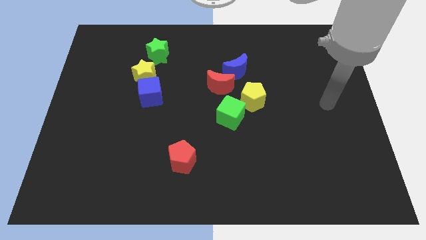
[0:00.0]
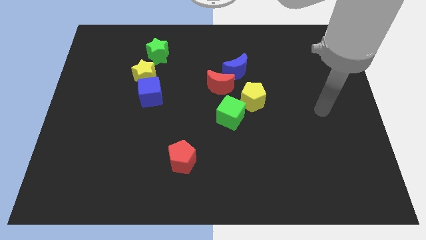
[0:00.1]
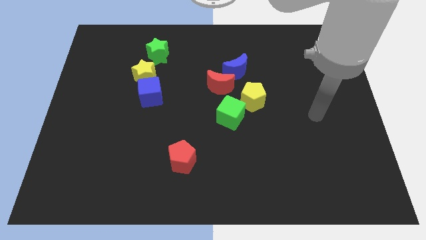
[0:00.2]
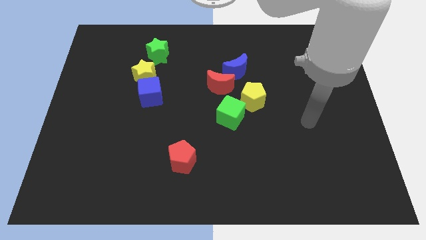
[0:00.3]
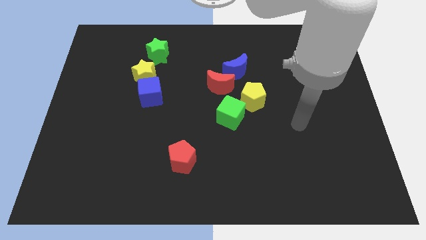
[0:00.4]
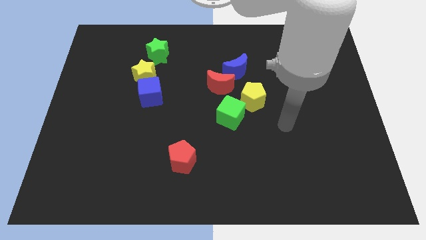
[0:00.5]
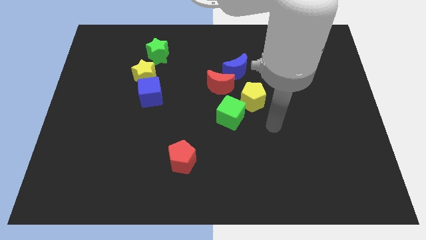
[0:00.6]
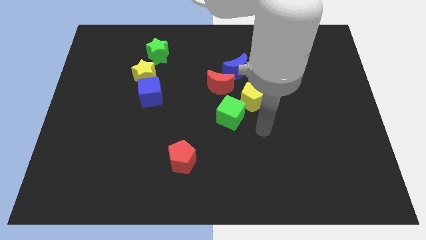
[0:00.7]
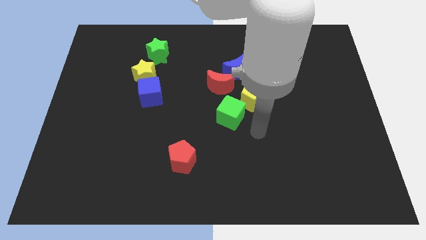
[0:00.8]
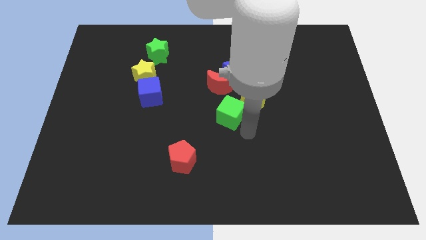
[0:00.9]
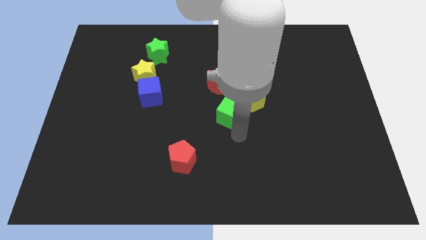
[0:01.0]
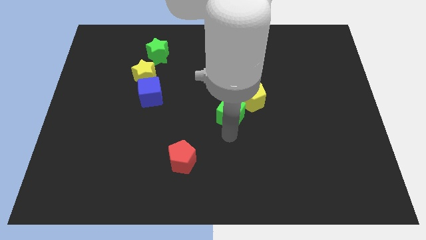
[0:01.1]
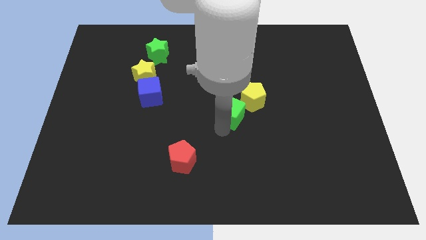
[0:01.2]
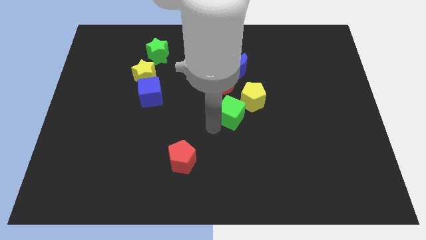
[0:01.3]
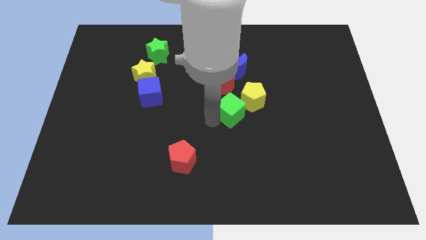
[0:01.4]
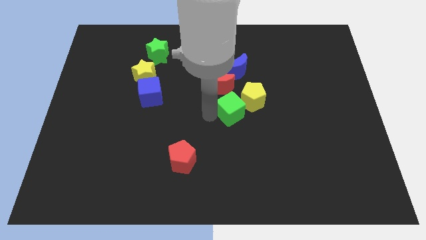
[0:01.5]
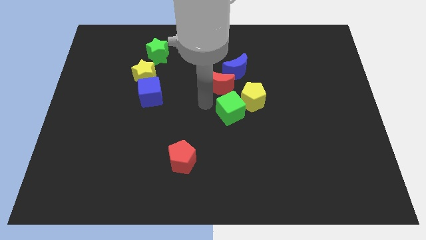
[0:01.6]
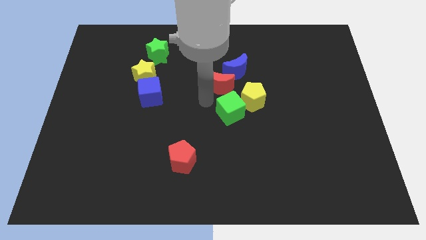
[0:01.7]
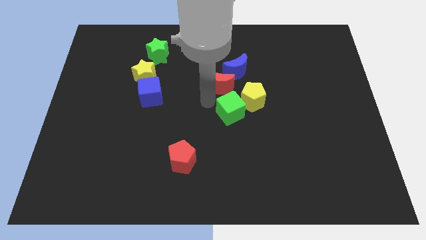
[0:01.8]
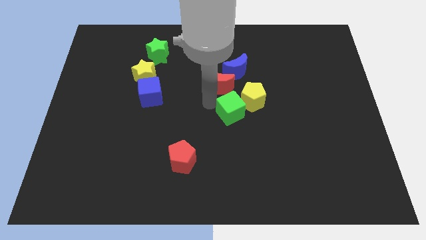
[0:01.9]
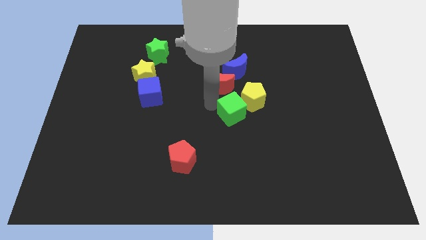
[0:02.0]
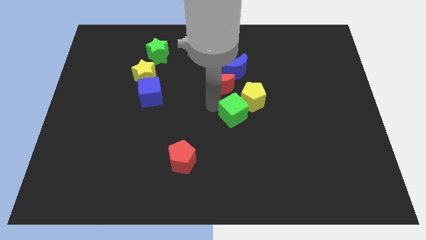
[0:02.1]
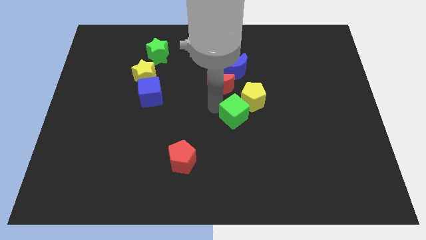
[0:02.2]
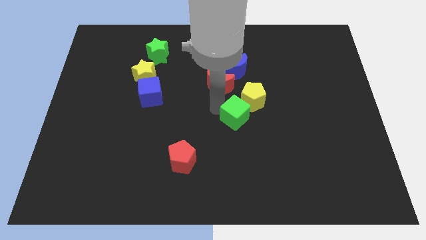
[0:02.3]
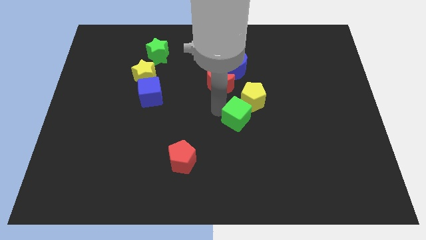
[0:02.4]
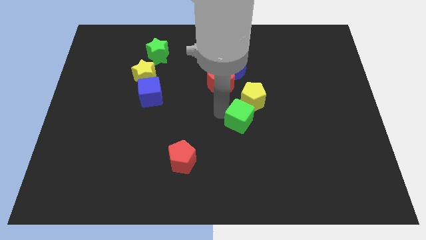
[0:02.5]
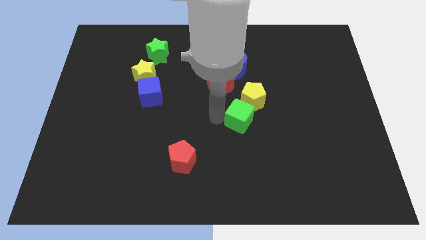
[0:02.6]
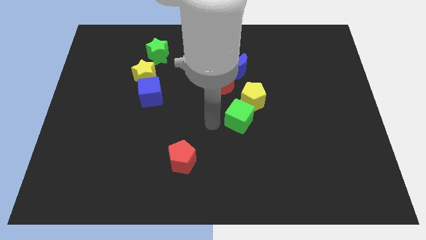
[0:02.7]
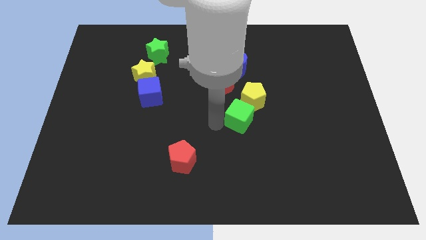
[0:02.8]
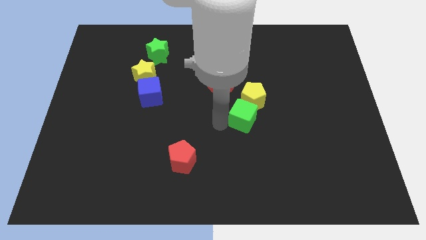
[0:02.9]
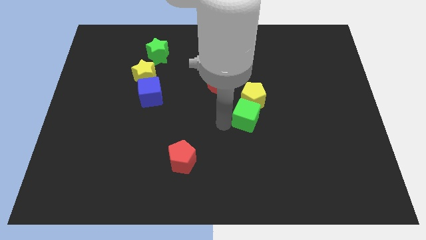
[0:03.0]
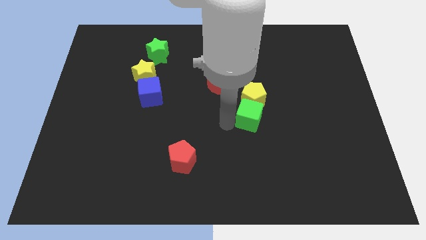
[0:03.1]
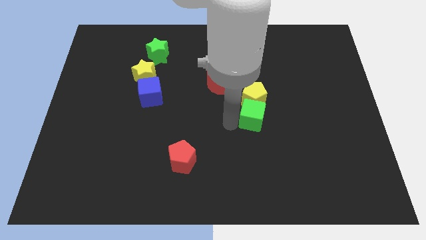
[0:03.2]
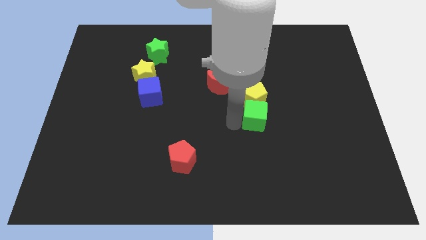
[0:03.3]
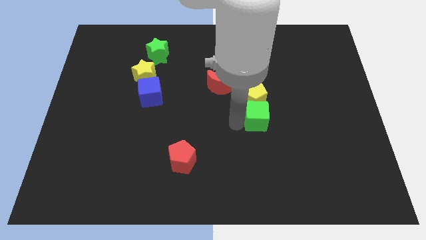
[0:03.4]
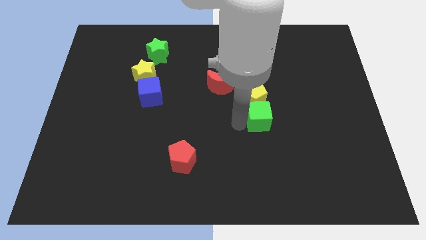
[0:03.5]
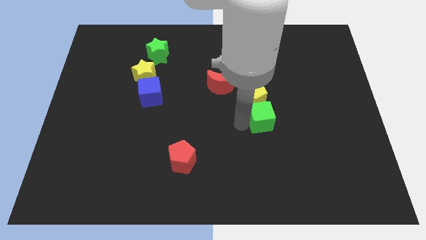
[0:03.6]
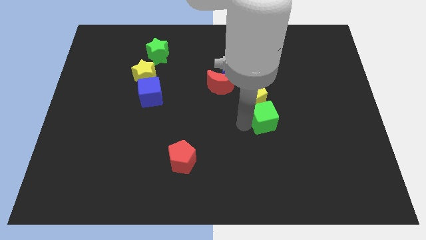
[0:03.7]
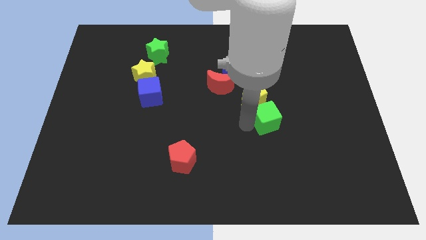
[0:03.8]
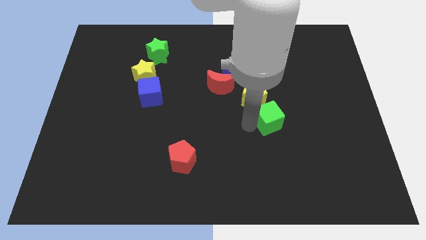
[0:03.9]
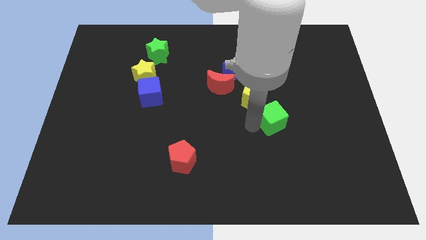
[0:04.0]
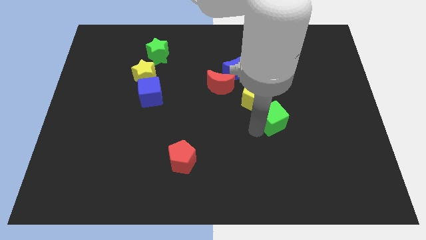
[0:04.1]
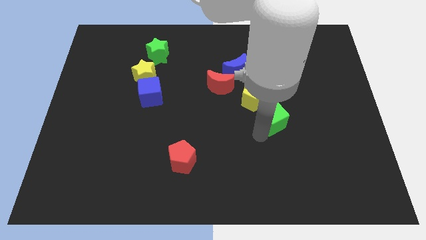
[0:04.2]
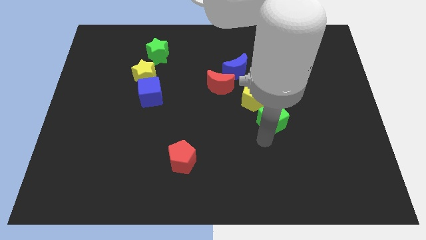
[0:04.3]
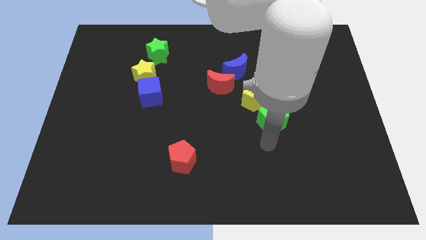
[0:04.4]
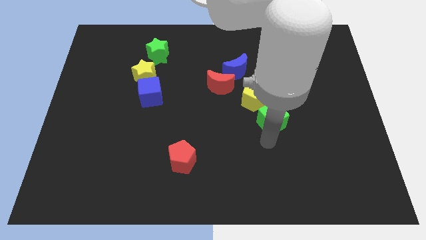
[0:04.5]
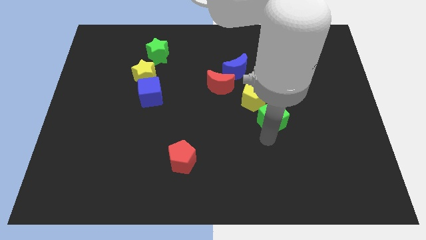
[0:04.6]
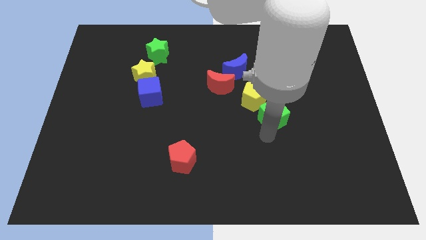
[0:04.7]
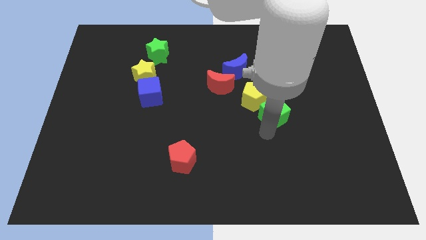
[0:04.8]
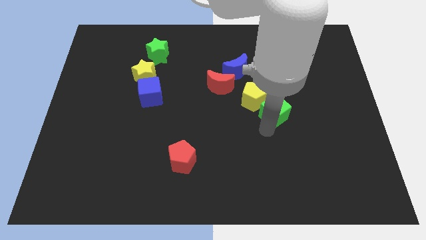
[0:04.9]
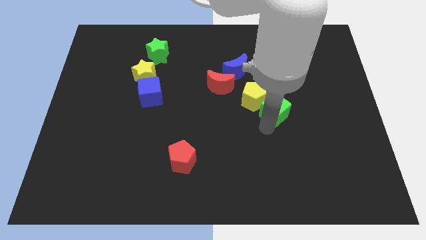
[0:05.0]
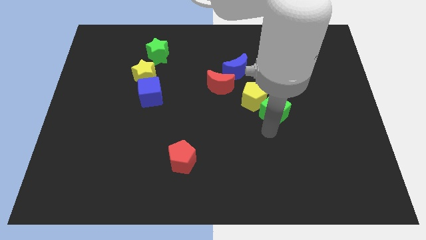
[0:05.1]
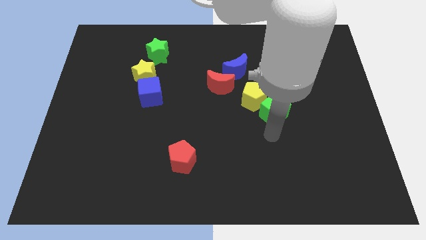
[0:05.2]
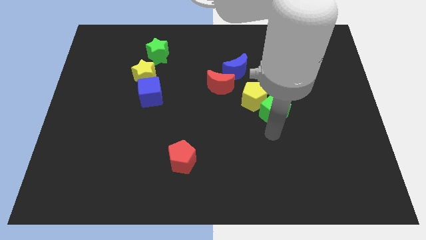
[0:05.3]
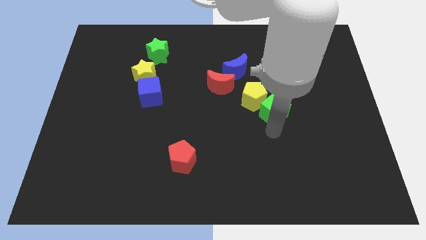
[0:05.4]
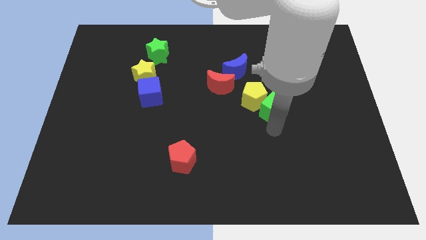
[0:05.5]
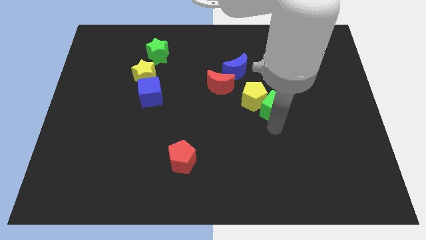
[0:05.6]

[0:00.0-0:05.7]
slightly push the green cube up and then right

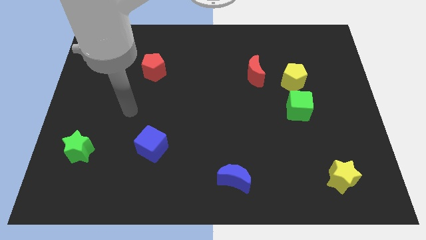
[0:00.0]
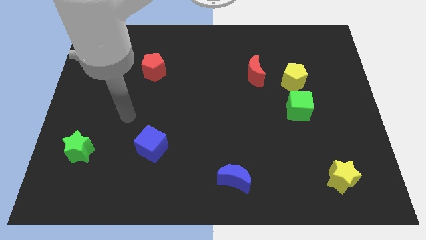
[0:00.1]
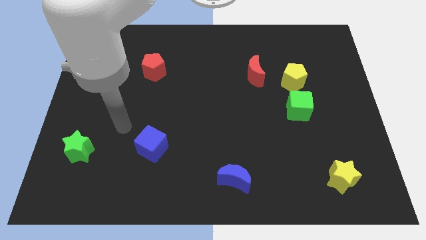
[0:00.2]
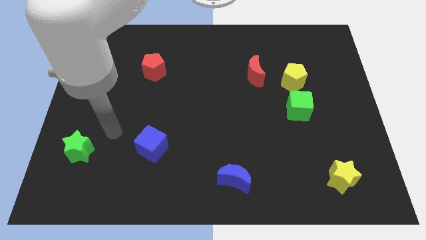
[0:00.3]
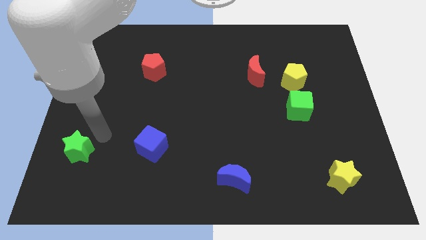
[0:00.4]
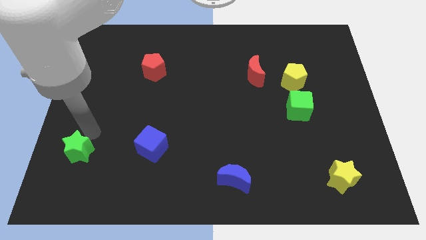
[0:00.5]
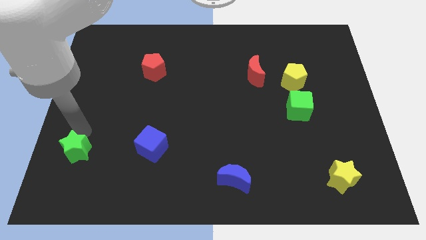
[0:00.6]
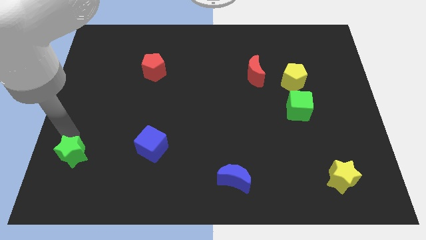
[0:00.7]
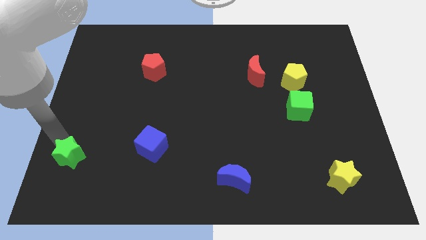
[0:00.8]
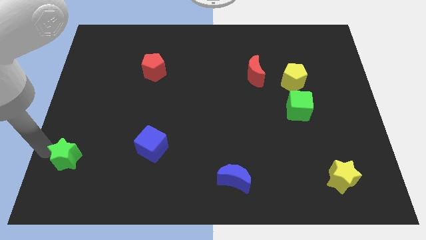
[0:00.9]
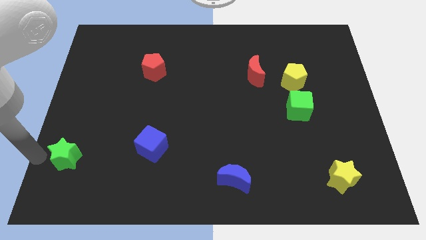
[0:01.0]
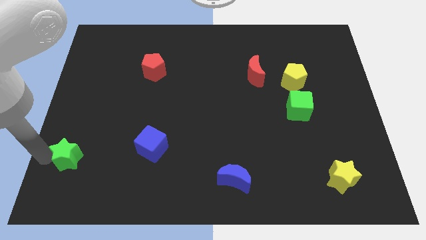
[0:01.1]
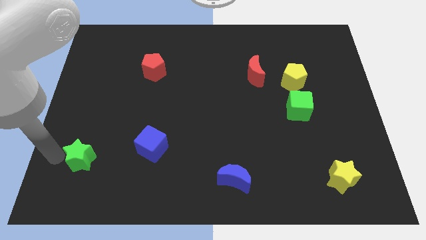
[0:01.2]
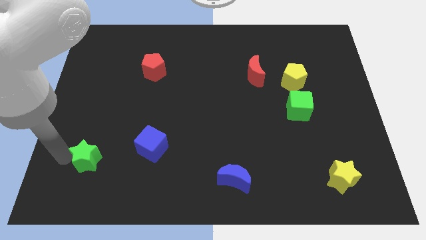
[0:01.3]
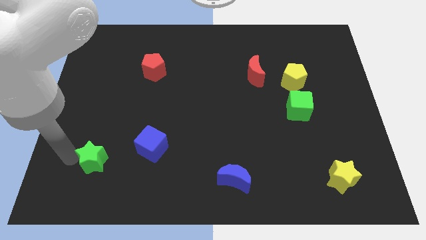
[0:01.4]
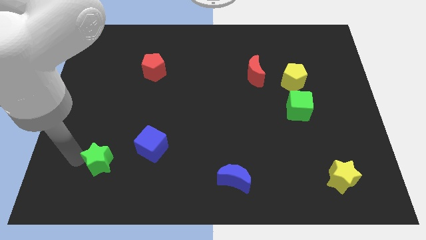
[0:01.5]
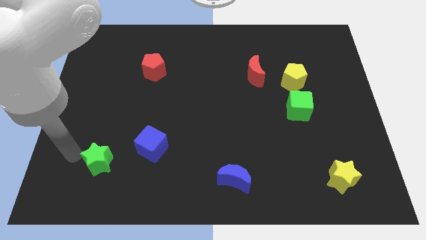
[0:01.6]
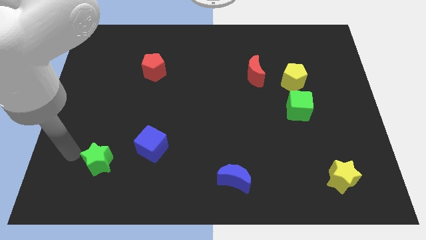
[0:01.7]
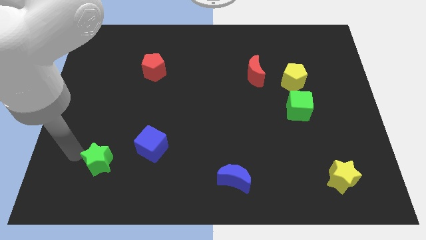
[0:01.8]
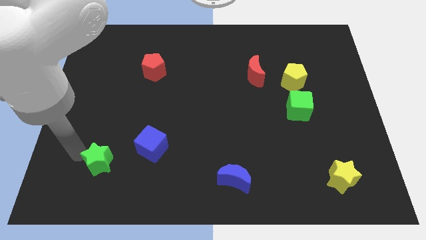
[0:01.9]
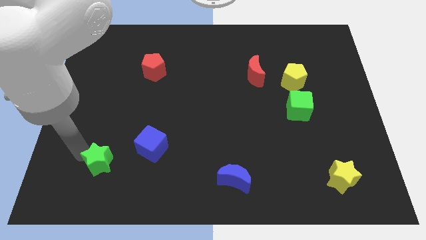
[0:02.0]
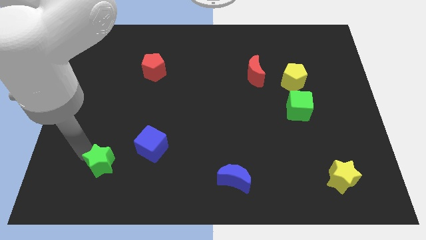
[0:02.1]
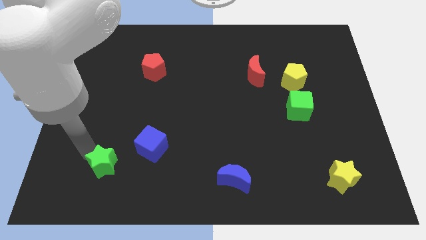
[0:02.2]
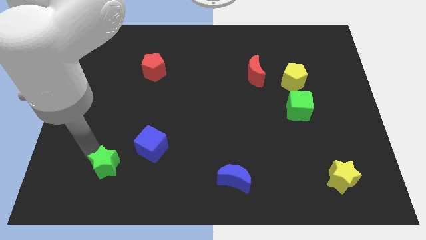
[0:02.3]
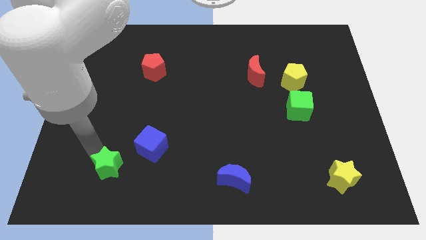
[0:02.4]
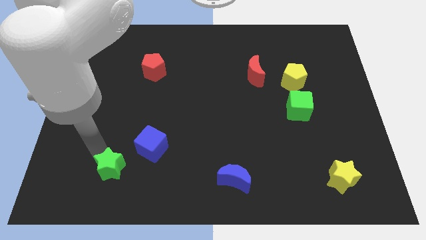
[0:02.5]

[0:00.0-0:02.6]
move the green star a little right
